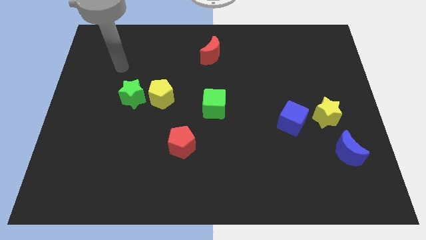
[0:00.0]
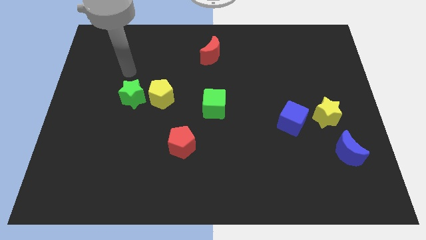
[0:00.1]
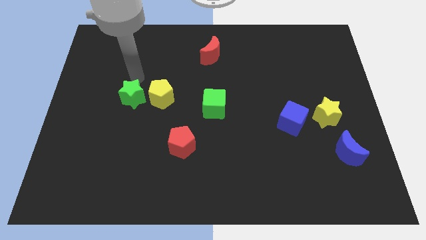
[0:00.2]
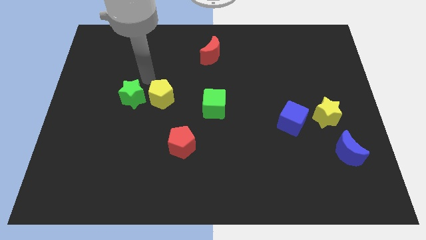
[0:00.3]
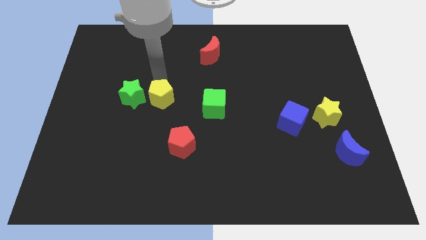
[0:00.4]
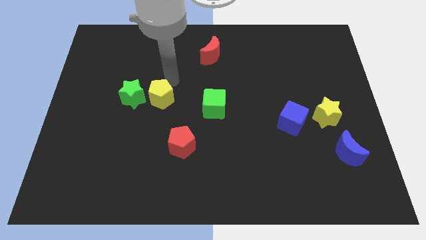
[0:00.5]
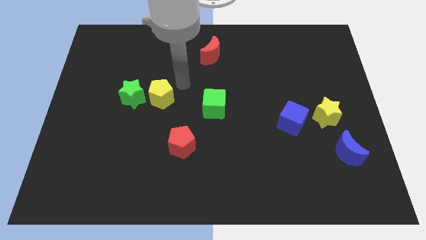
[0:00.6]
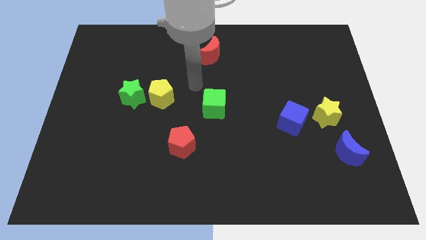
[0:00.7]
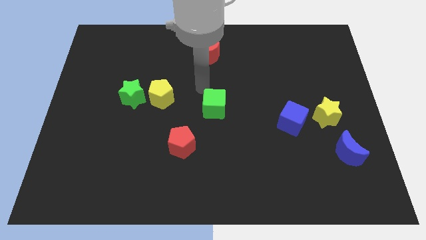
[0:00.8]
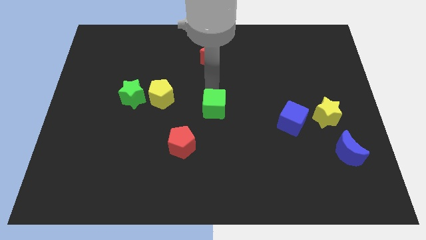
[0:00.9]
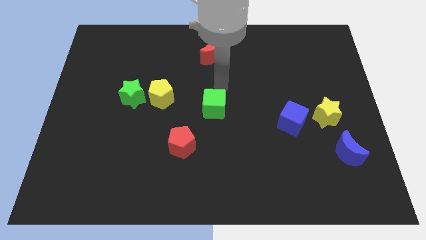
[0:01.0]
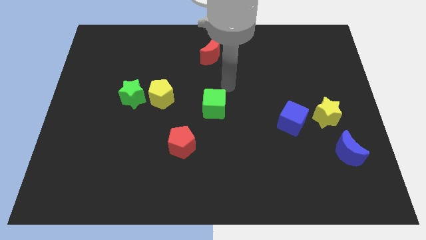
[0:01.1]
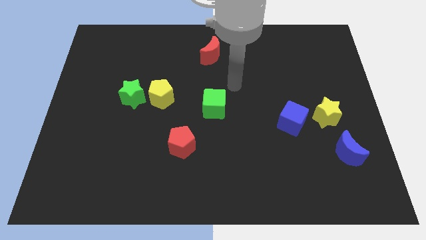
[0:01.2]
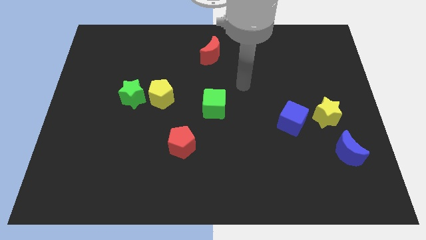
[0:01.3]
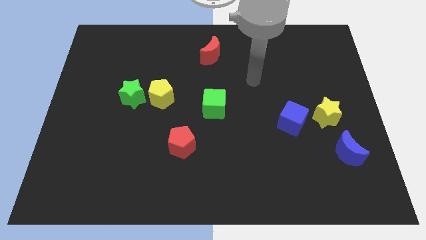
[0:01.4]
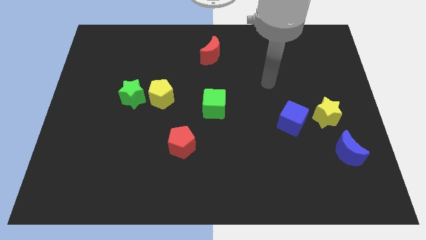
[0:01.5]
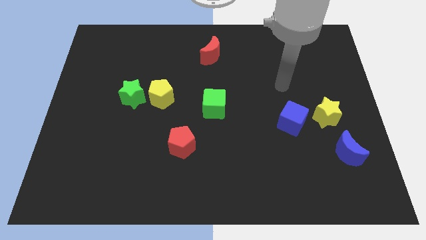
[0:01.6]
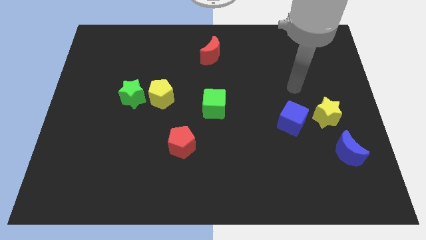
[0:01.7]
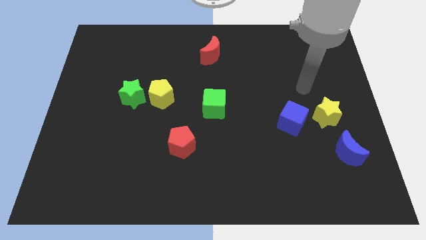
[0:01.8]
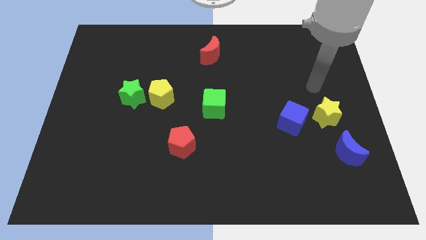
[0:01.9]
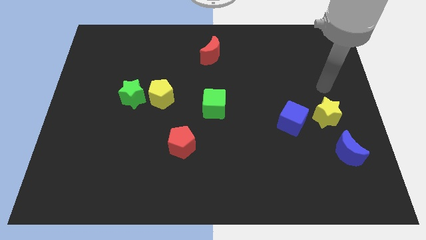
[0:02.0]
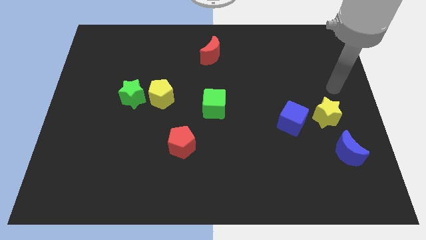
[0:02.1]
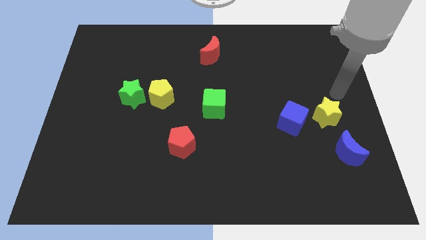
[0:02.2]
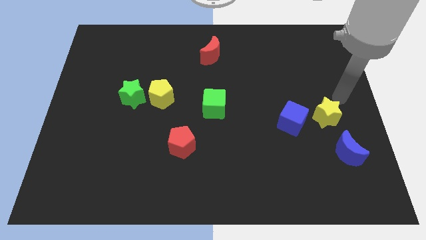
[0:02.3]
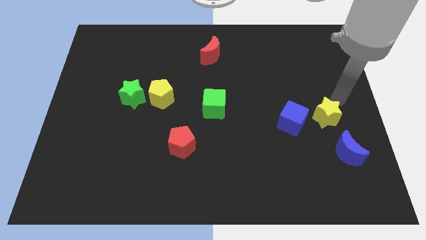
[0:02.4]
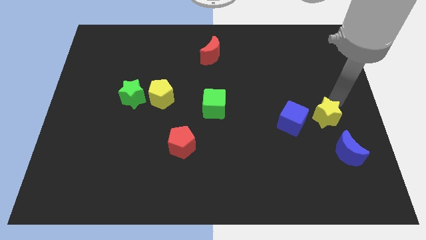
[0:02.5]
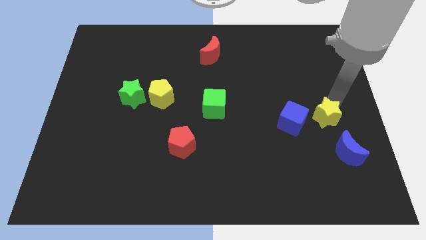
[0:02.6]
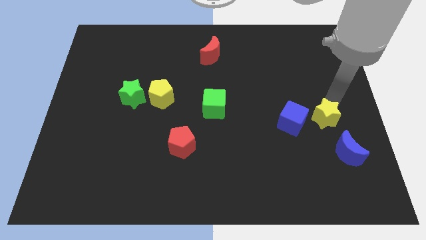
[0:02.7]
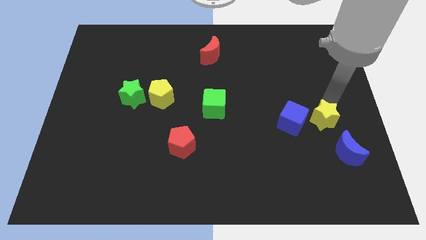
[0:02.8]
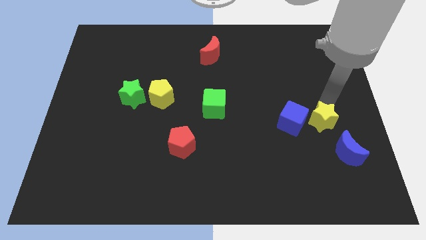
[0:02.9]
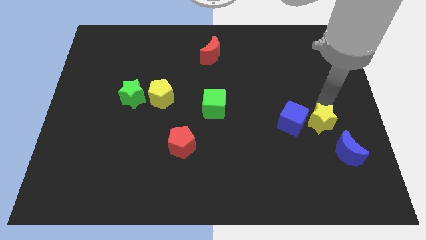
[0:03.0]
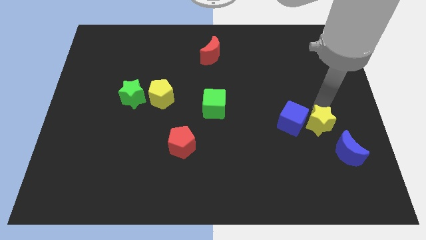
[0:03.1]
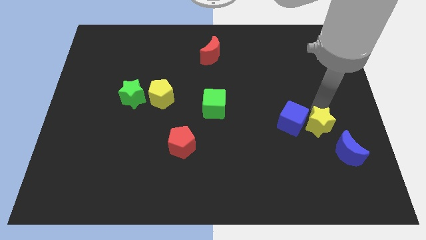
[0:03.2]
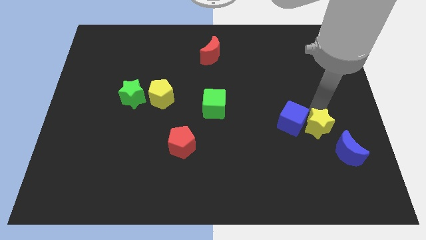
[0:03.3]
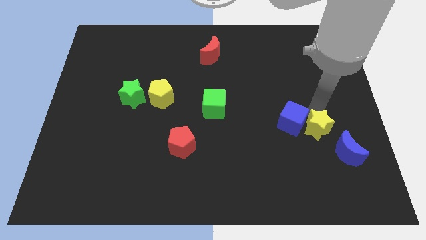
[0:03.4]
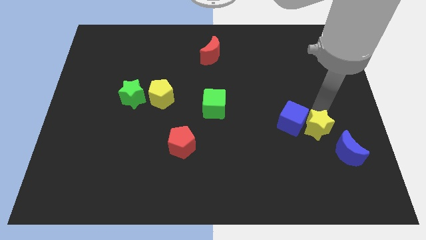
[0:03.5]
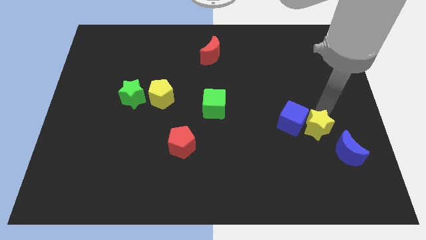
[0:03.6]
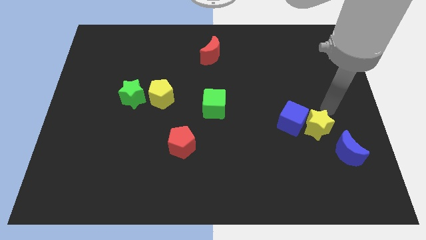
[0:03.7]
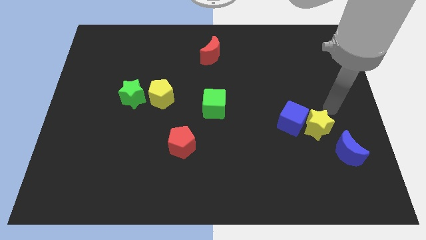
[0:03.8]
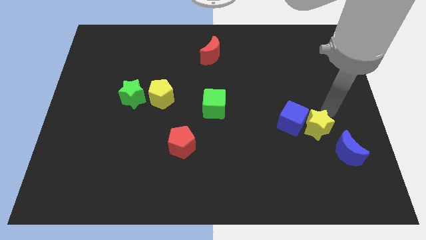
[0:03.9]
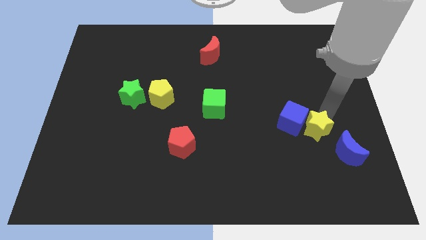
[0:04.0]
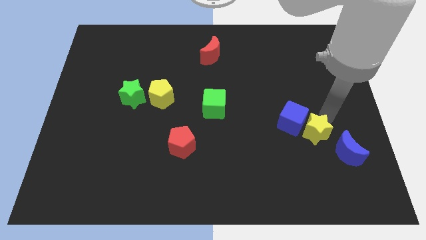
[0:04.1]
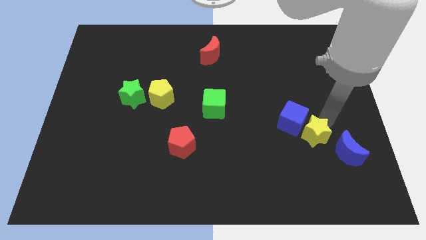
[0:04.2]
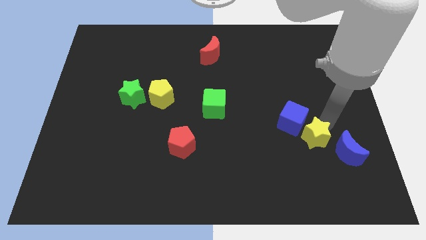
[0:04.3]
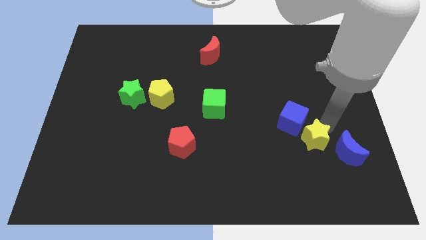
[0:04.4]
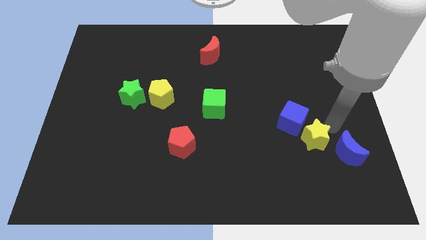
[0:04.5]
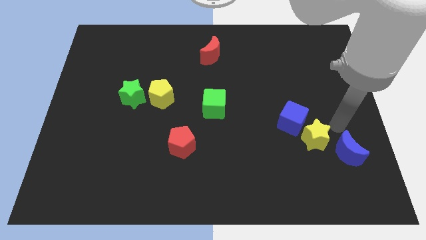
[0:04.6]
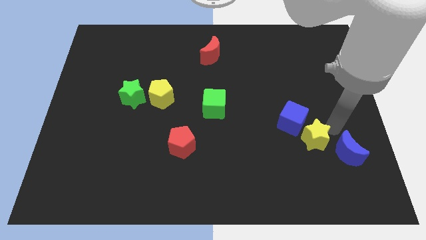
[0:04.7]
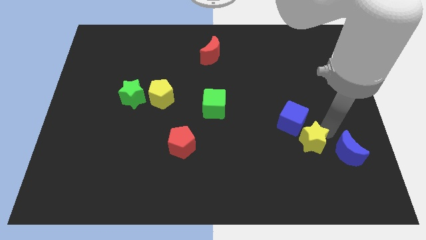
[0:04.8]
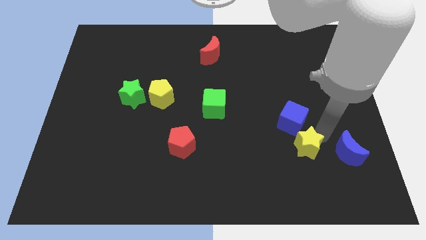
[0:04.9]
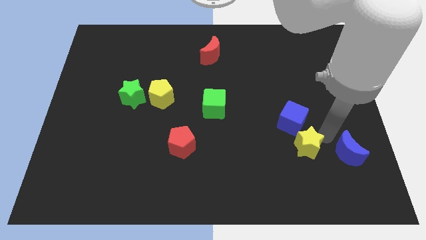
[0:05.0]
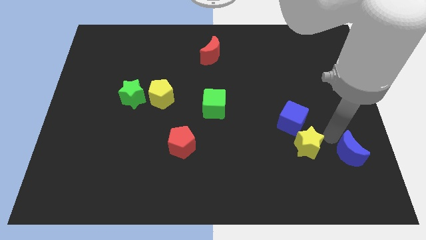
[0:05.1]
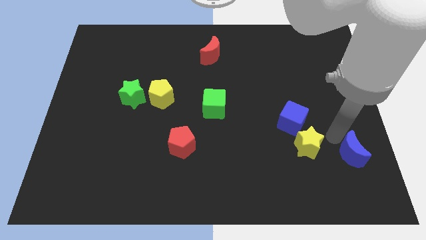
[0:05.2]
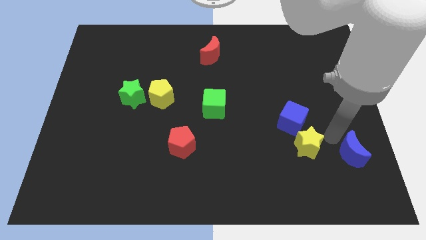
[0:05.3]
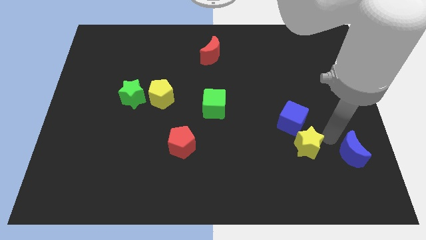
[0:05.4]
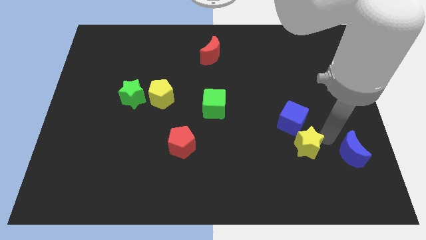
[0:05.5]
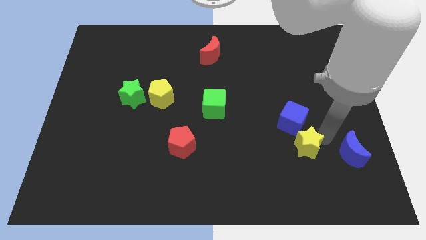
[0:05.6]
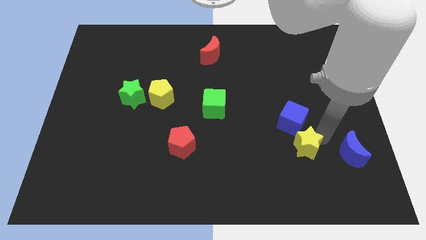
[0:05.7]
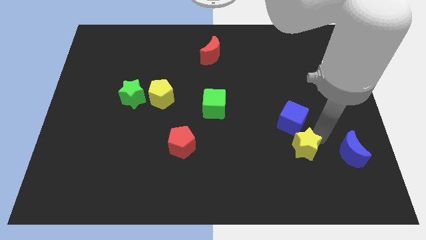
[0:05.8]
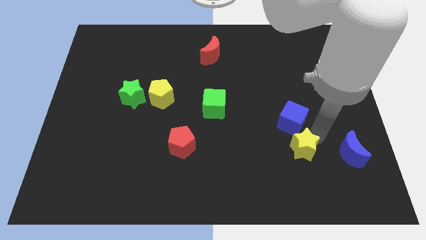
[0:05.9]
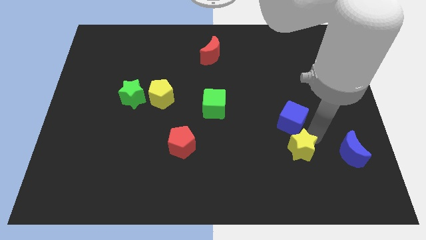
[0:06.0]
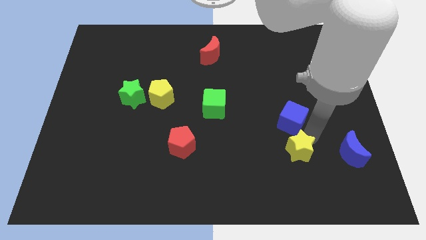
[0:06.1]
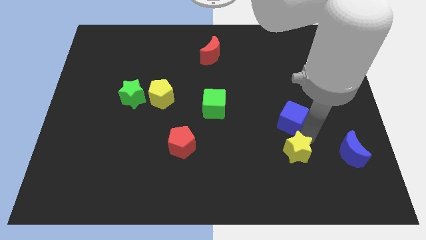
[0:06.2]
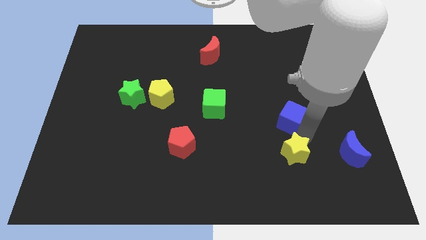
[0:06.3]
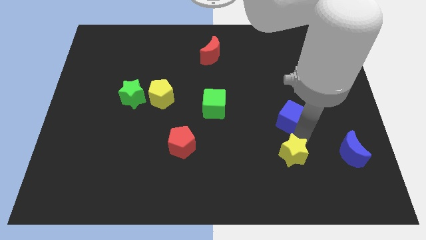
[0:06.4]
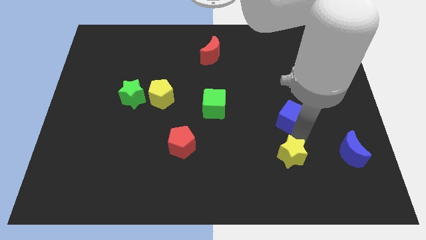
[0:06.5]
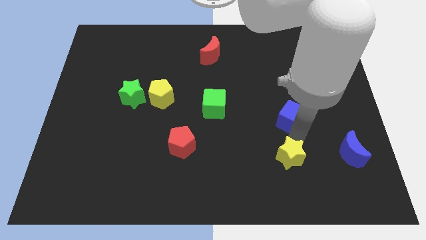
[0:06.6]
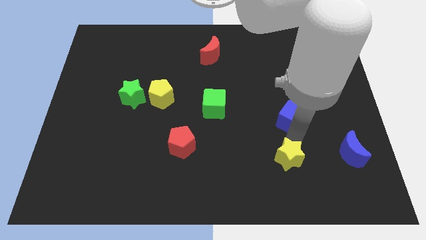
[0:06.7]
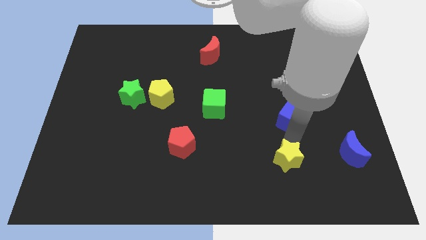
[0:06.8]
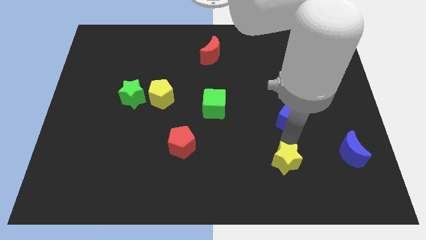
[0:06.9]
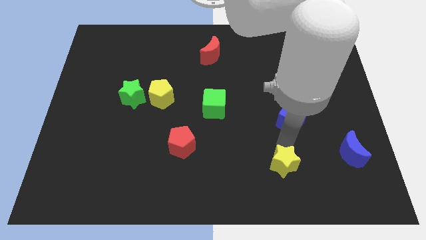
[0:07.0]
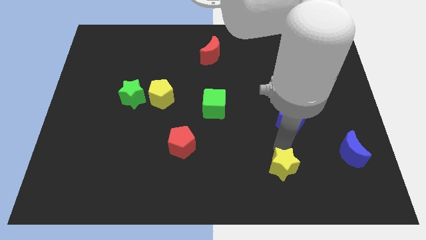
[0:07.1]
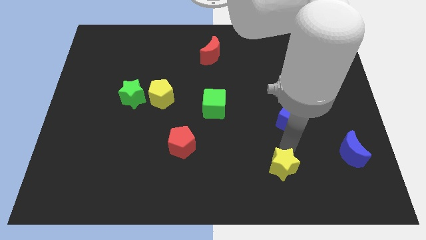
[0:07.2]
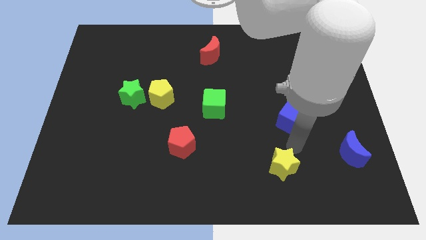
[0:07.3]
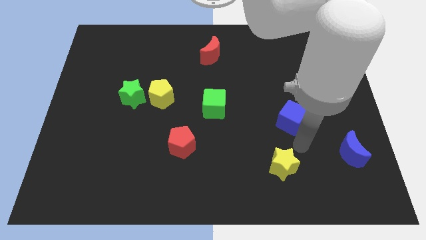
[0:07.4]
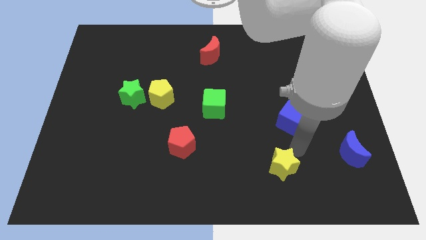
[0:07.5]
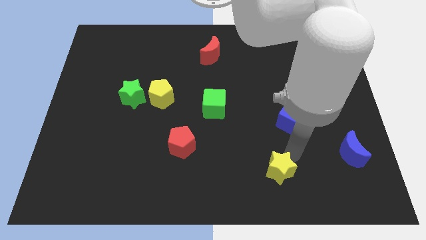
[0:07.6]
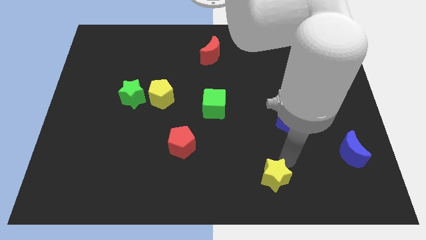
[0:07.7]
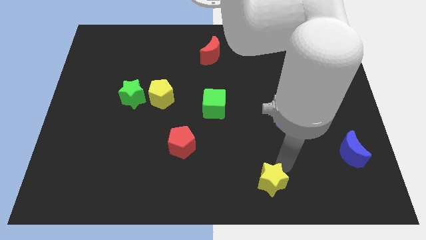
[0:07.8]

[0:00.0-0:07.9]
move the yellow star to the bottom
